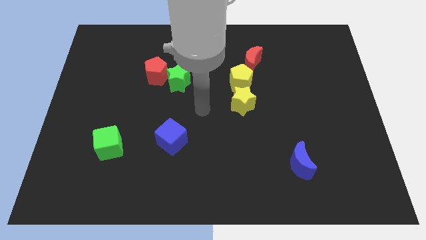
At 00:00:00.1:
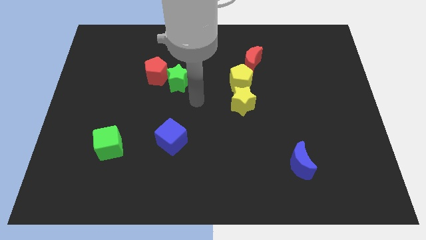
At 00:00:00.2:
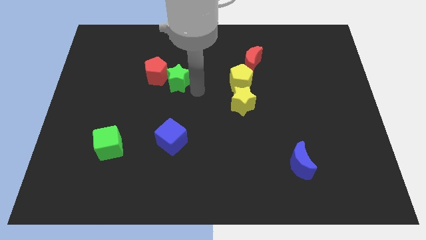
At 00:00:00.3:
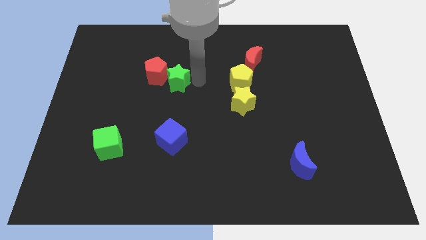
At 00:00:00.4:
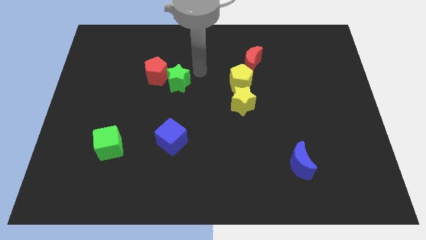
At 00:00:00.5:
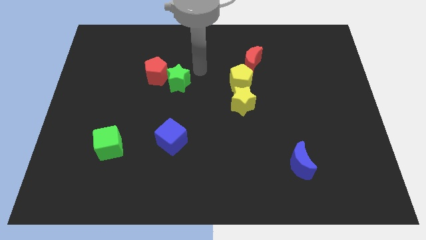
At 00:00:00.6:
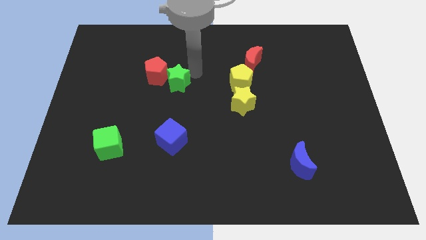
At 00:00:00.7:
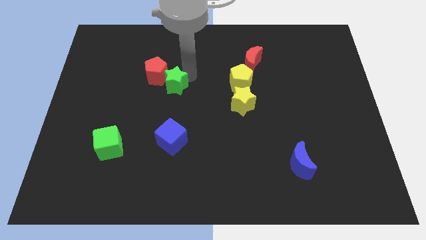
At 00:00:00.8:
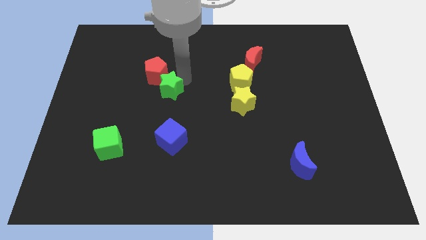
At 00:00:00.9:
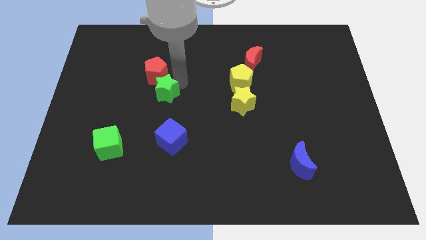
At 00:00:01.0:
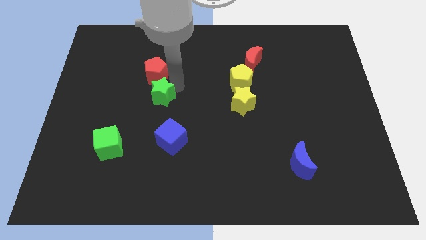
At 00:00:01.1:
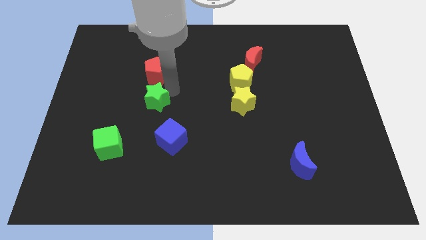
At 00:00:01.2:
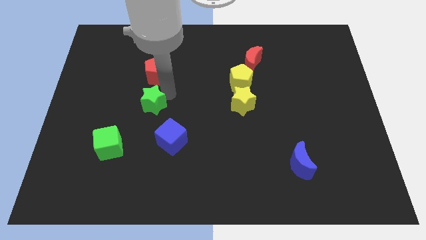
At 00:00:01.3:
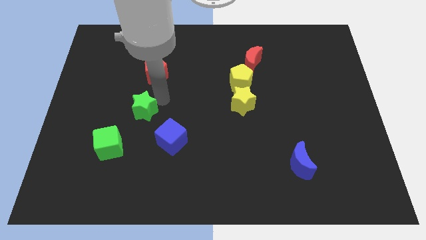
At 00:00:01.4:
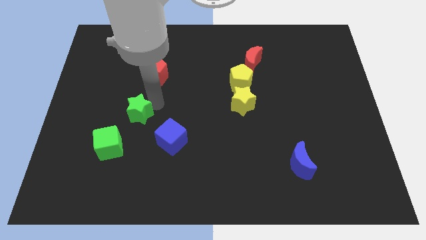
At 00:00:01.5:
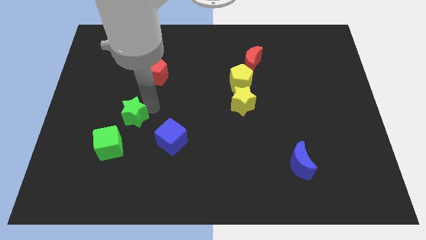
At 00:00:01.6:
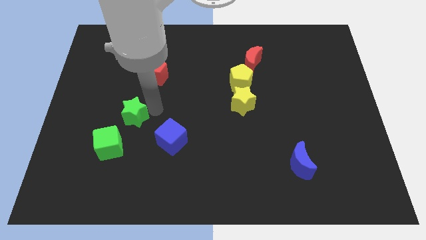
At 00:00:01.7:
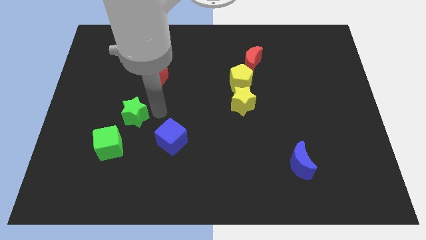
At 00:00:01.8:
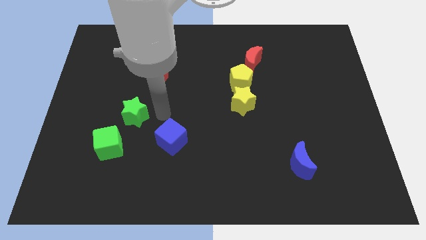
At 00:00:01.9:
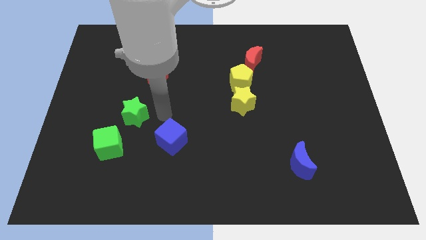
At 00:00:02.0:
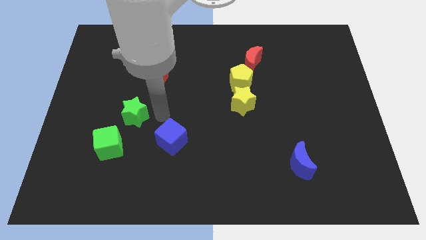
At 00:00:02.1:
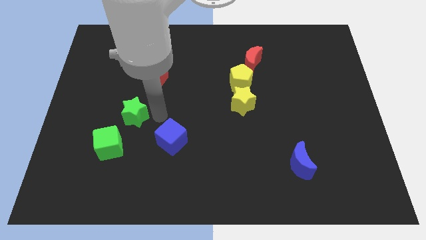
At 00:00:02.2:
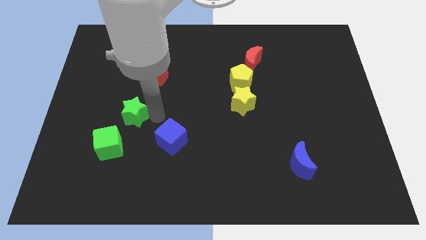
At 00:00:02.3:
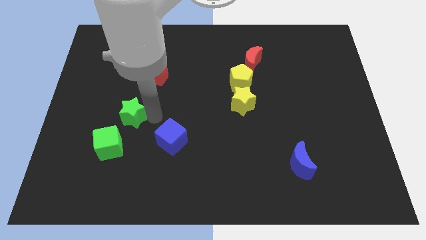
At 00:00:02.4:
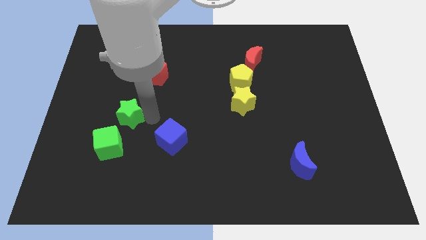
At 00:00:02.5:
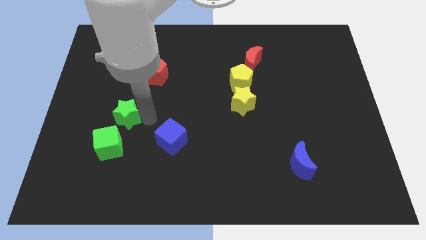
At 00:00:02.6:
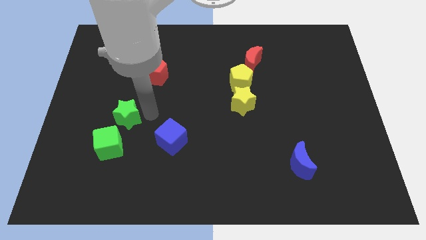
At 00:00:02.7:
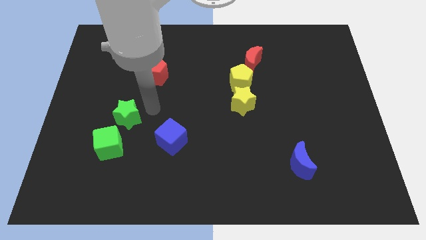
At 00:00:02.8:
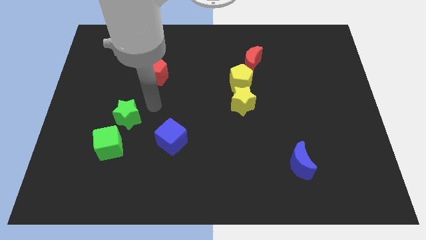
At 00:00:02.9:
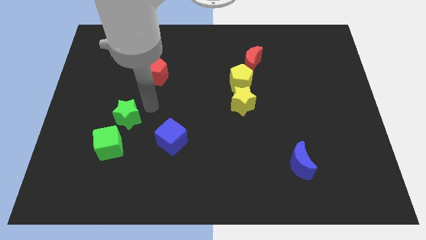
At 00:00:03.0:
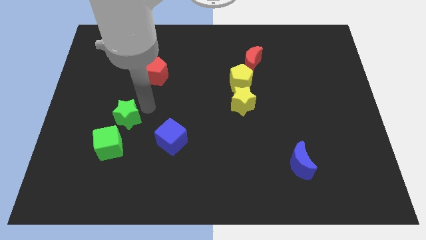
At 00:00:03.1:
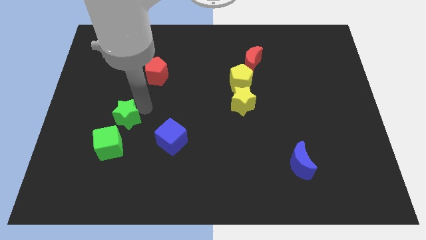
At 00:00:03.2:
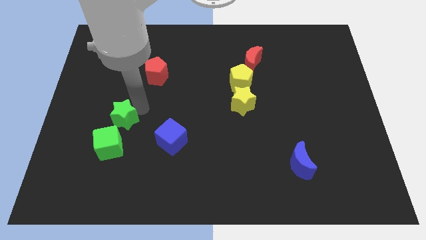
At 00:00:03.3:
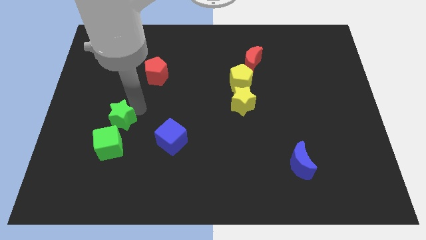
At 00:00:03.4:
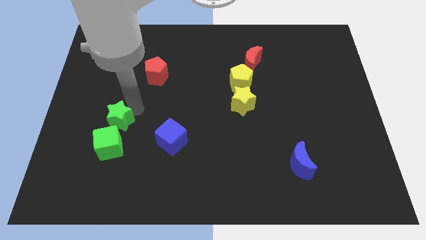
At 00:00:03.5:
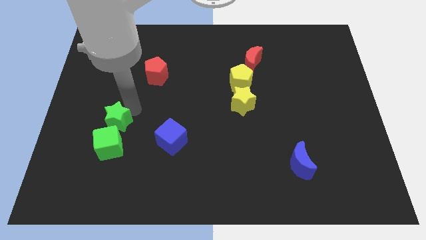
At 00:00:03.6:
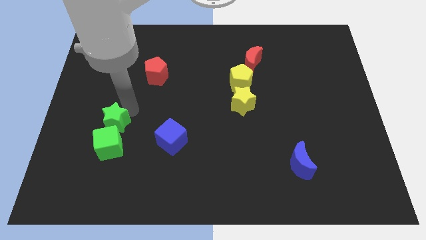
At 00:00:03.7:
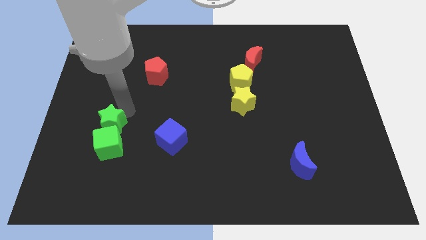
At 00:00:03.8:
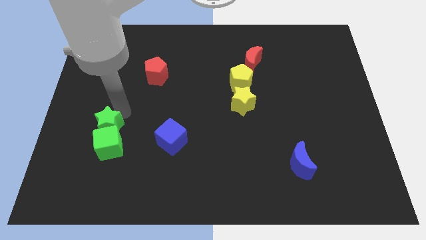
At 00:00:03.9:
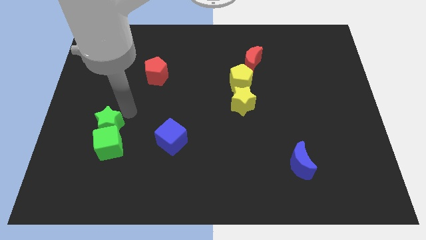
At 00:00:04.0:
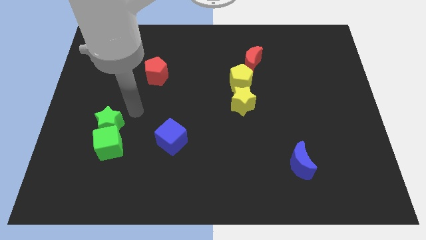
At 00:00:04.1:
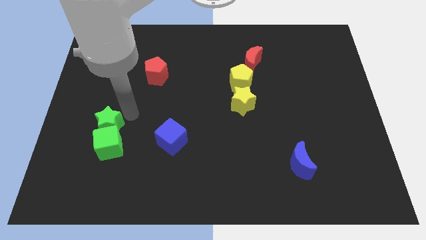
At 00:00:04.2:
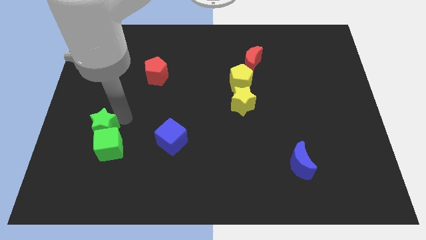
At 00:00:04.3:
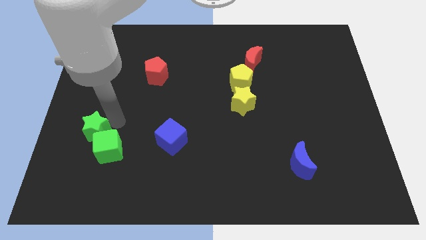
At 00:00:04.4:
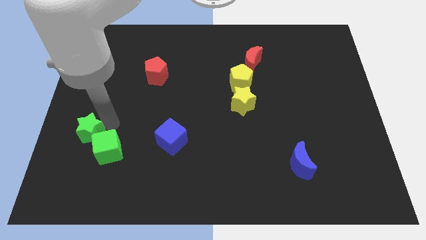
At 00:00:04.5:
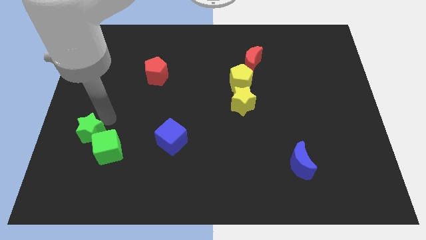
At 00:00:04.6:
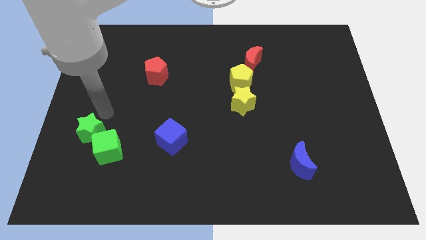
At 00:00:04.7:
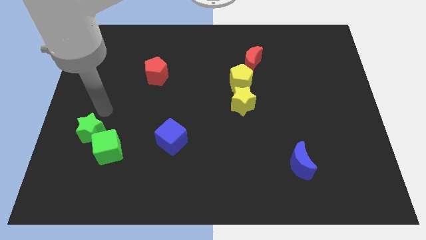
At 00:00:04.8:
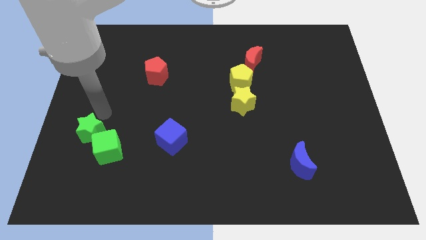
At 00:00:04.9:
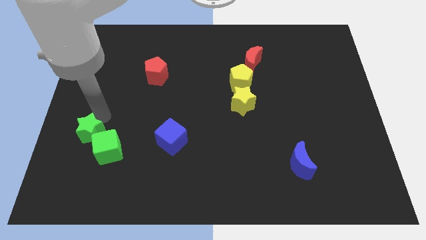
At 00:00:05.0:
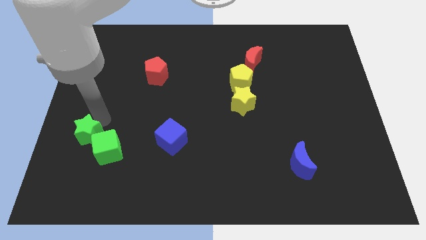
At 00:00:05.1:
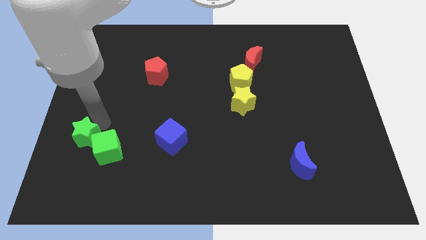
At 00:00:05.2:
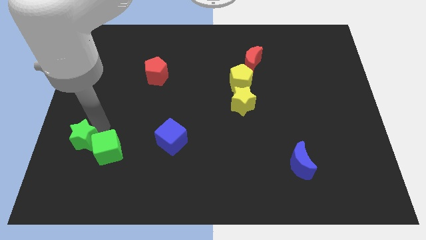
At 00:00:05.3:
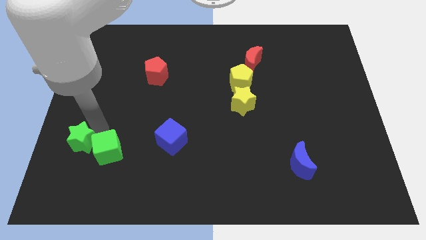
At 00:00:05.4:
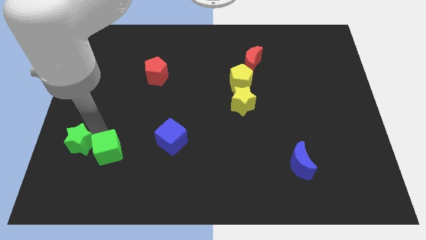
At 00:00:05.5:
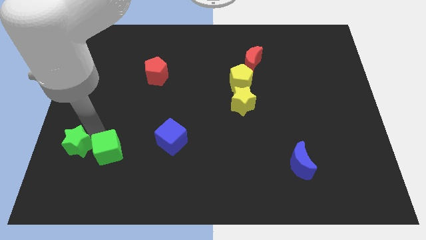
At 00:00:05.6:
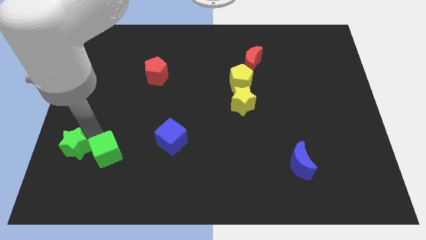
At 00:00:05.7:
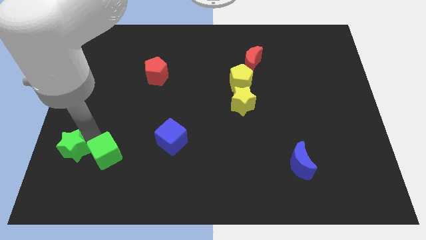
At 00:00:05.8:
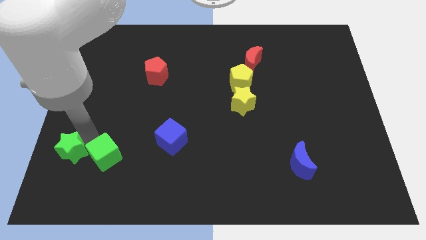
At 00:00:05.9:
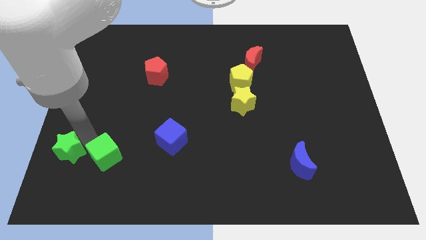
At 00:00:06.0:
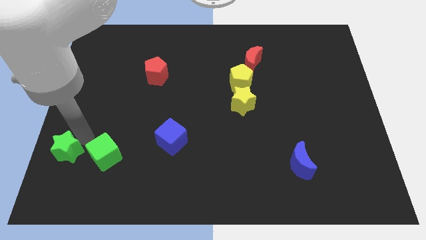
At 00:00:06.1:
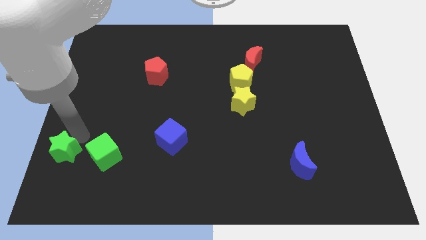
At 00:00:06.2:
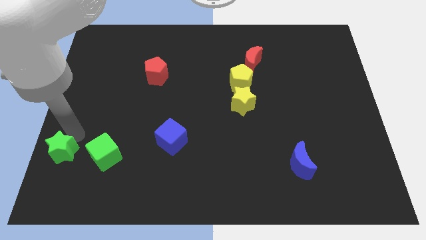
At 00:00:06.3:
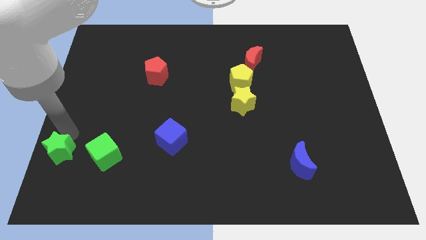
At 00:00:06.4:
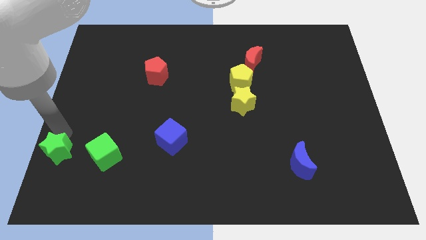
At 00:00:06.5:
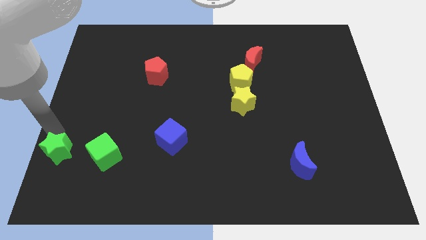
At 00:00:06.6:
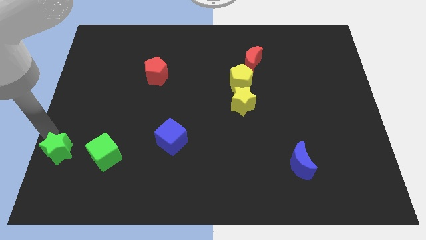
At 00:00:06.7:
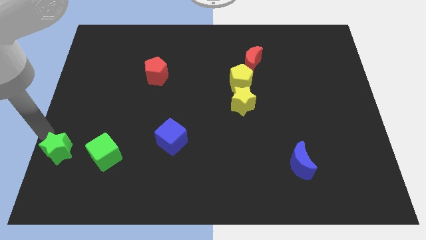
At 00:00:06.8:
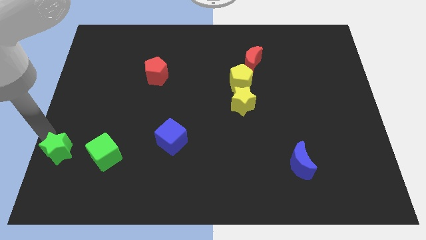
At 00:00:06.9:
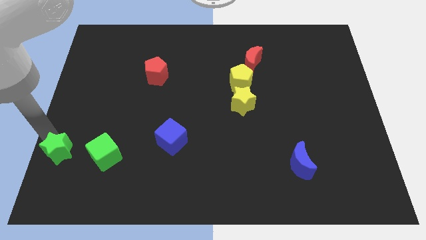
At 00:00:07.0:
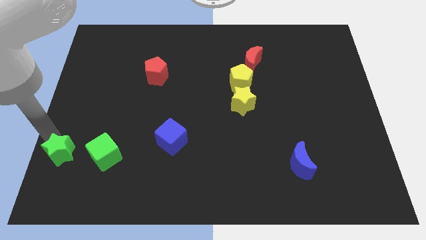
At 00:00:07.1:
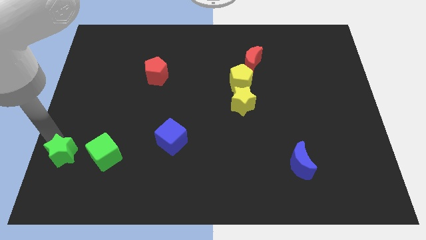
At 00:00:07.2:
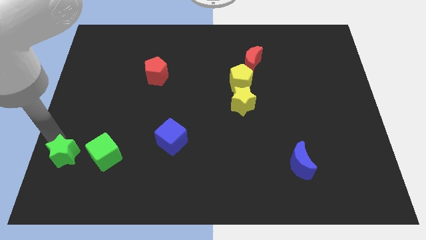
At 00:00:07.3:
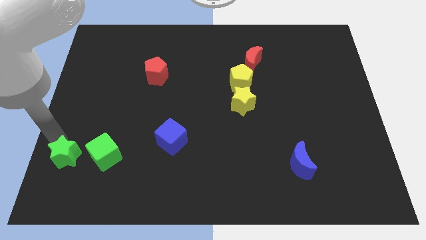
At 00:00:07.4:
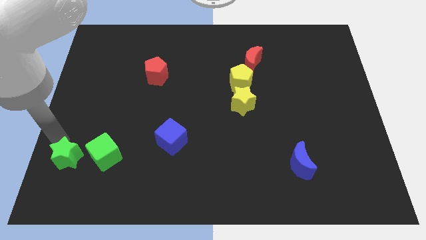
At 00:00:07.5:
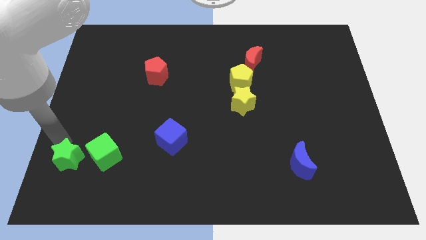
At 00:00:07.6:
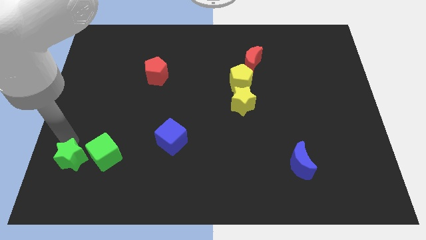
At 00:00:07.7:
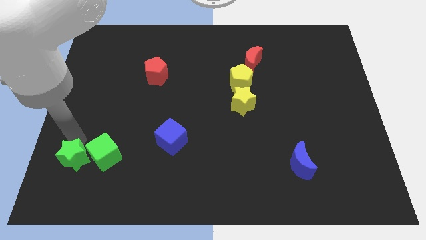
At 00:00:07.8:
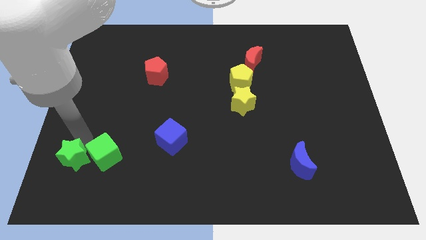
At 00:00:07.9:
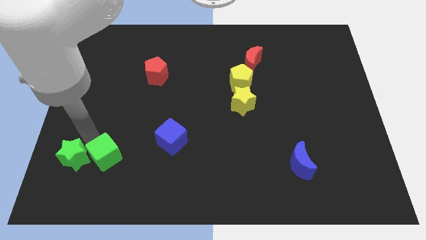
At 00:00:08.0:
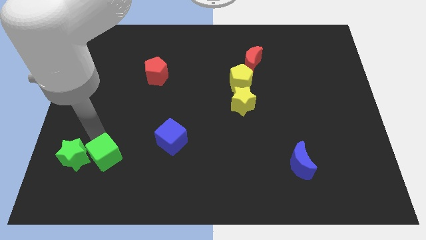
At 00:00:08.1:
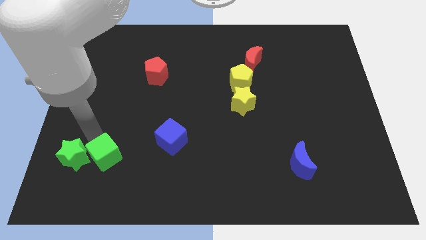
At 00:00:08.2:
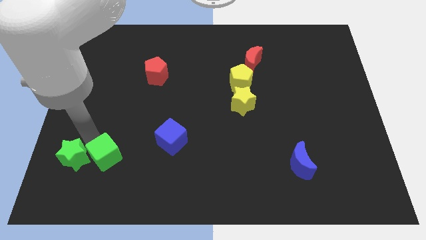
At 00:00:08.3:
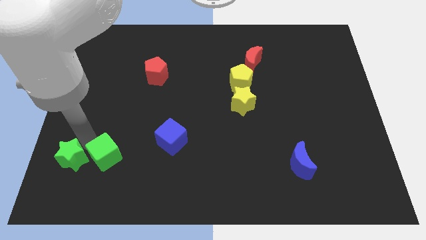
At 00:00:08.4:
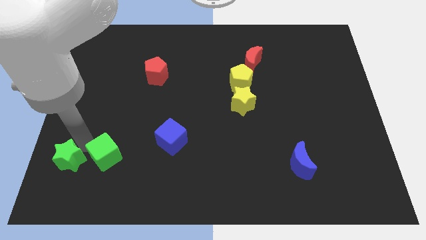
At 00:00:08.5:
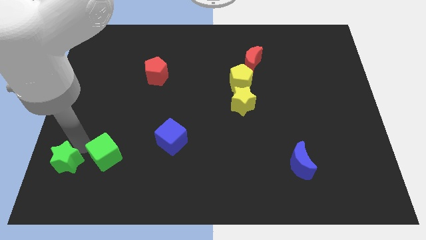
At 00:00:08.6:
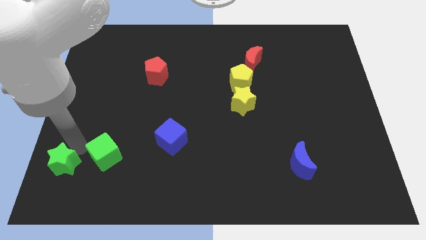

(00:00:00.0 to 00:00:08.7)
put the green star to the bottom left corner
